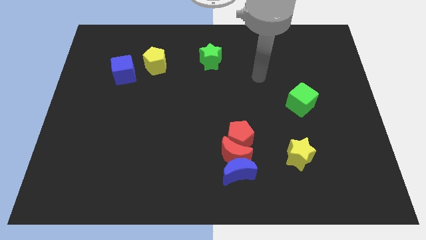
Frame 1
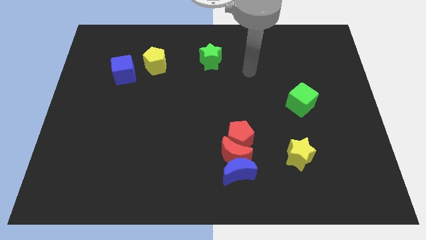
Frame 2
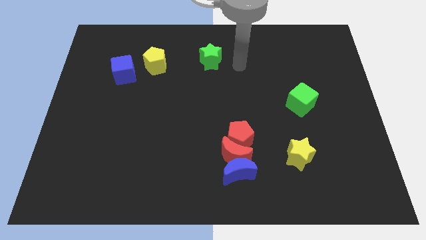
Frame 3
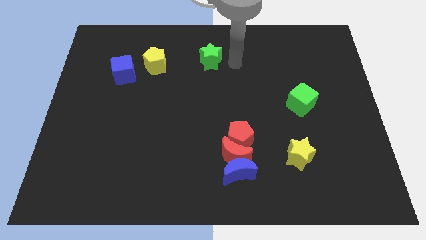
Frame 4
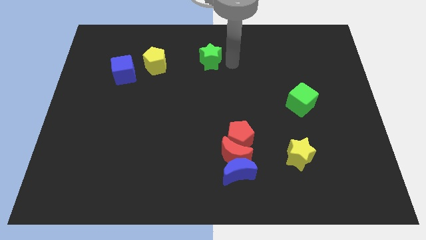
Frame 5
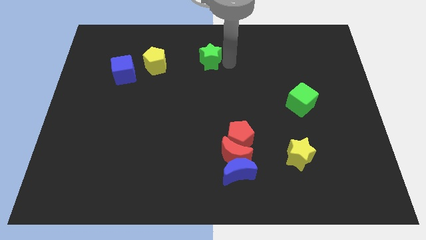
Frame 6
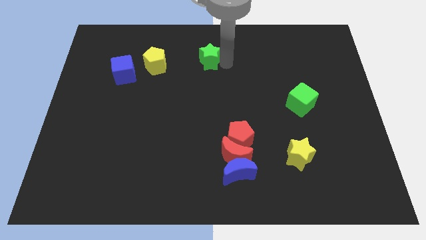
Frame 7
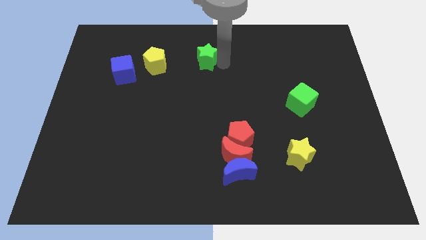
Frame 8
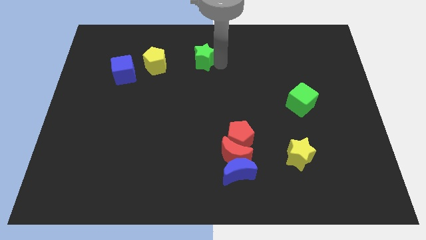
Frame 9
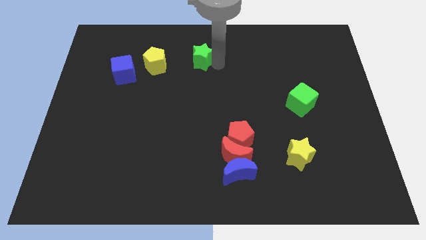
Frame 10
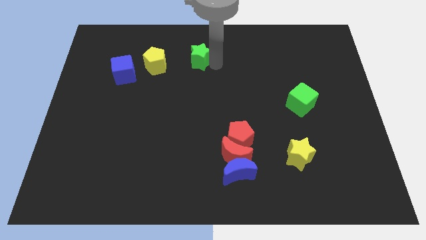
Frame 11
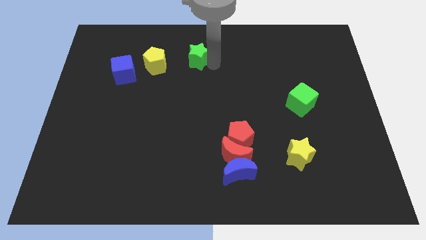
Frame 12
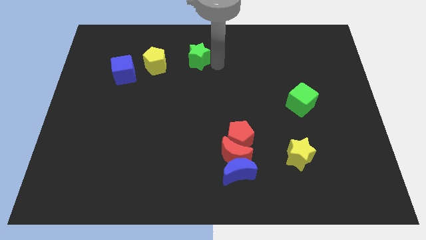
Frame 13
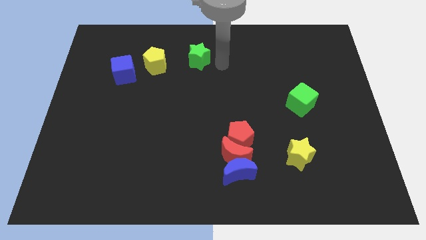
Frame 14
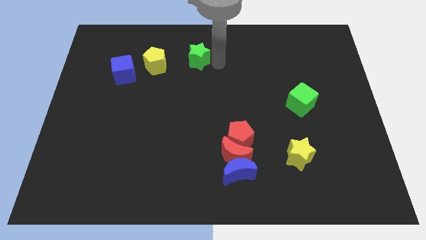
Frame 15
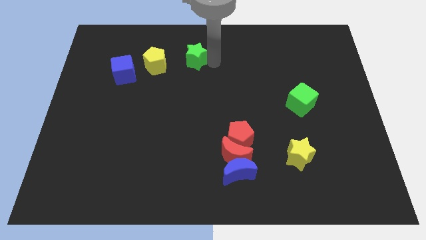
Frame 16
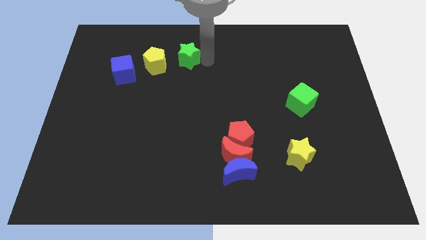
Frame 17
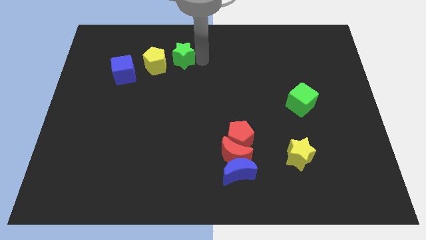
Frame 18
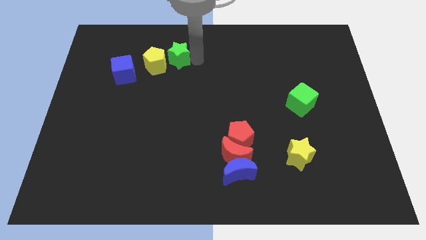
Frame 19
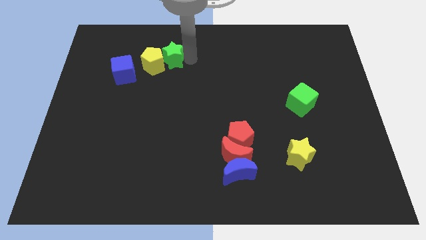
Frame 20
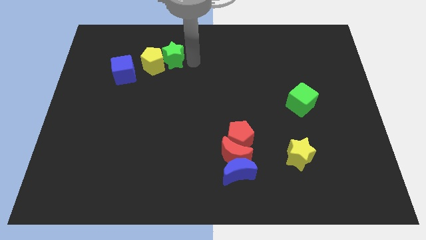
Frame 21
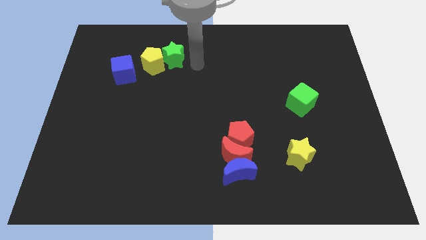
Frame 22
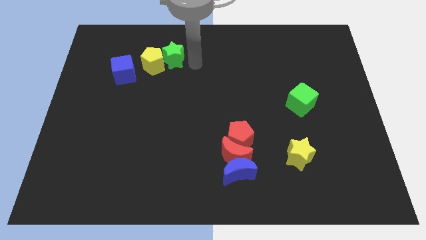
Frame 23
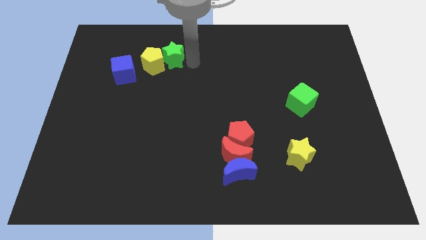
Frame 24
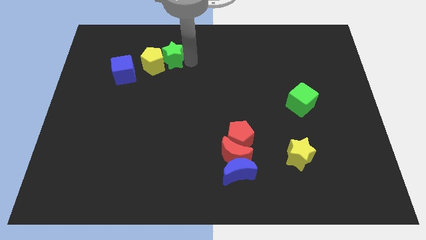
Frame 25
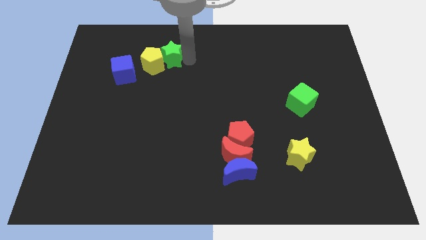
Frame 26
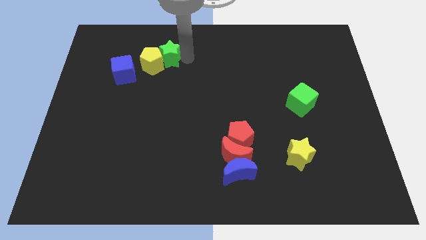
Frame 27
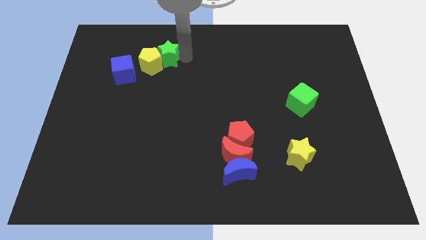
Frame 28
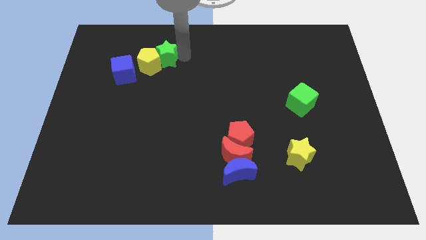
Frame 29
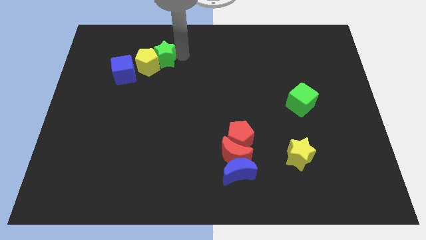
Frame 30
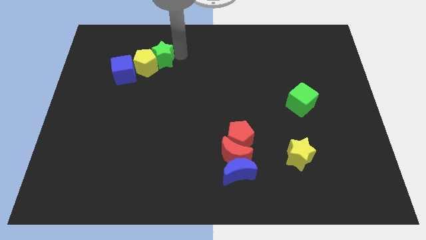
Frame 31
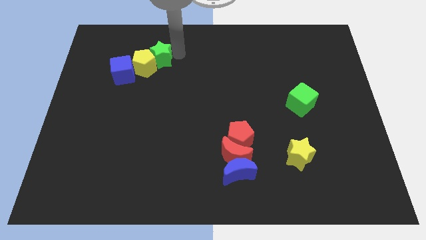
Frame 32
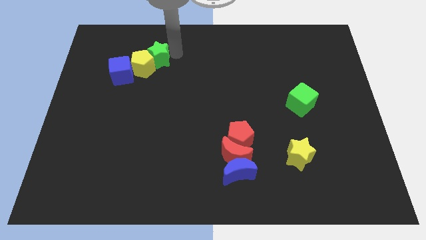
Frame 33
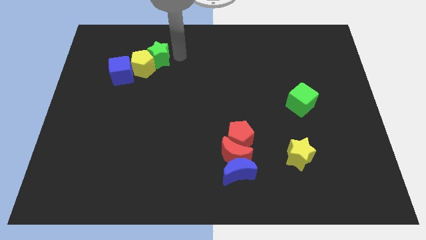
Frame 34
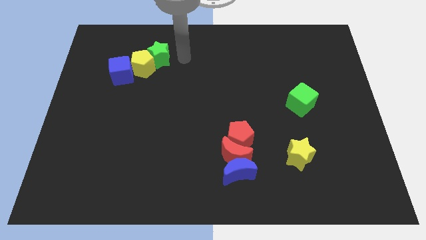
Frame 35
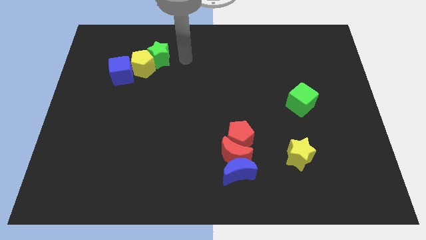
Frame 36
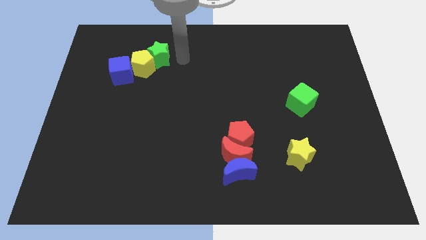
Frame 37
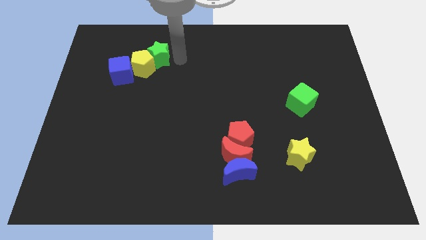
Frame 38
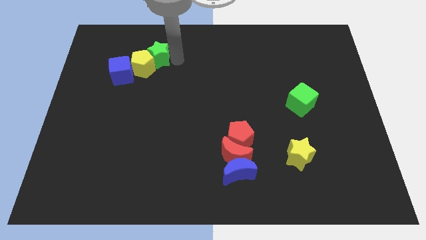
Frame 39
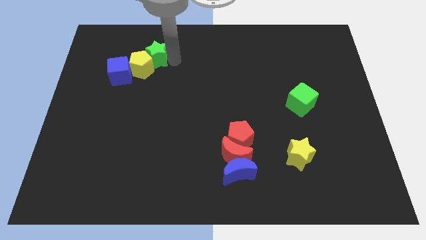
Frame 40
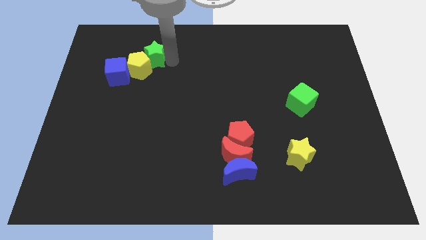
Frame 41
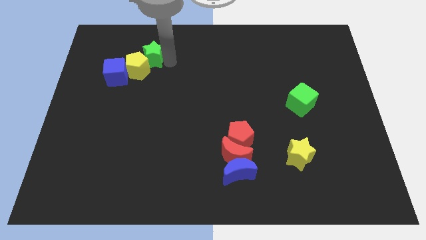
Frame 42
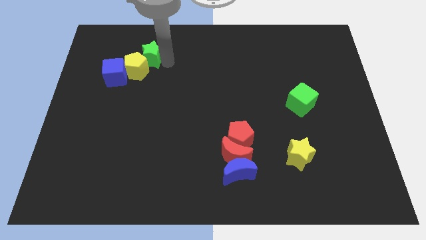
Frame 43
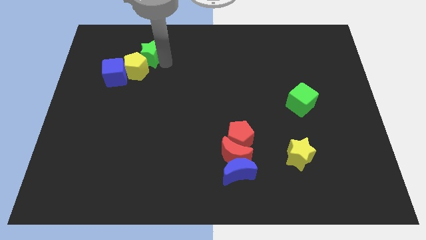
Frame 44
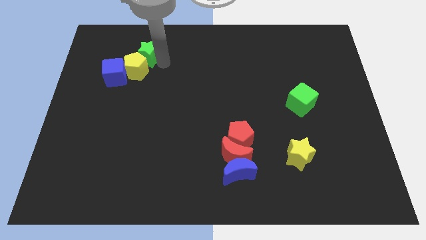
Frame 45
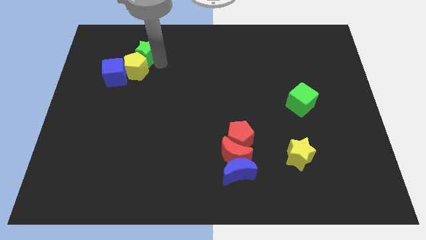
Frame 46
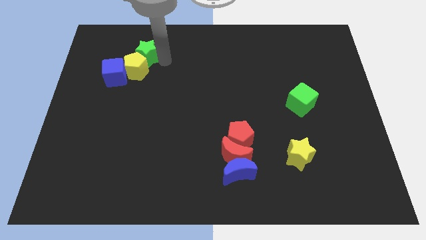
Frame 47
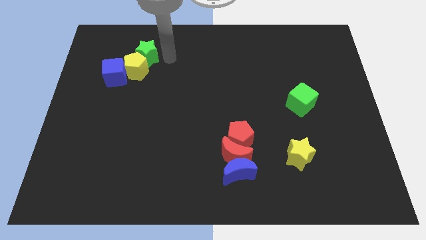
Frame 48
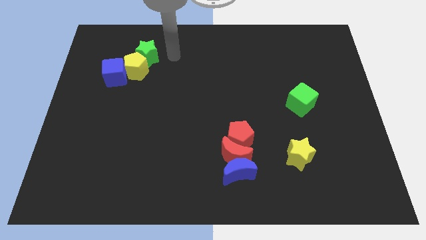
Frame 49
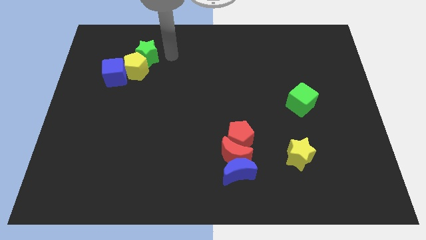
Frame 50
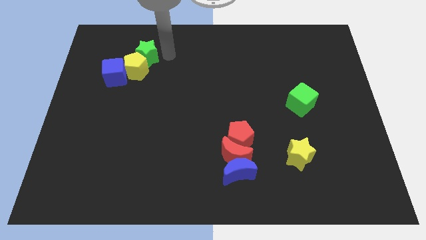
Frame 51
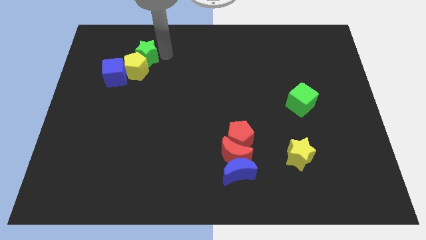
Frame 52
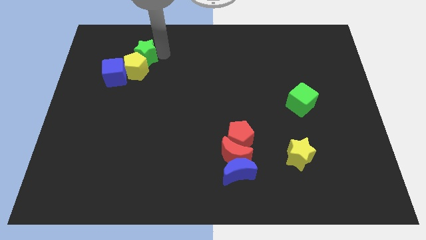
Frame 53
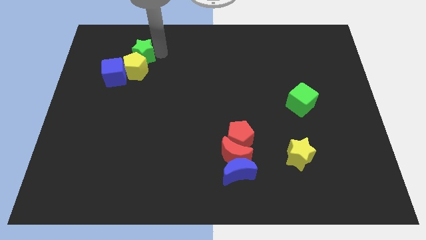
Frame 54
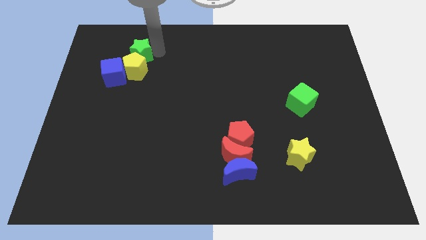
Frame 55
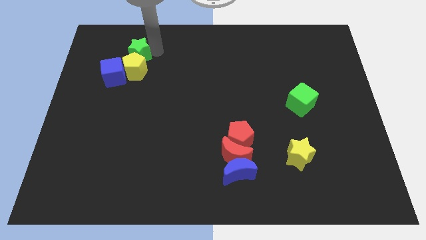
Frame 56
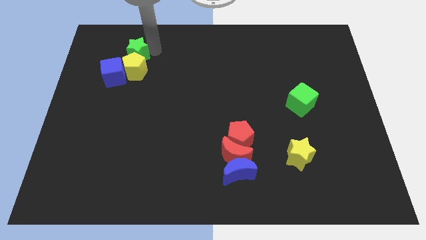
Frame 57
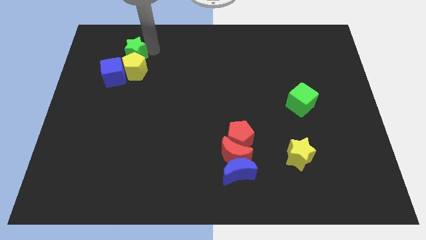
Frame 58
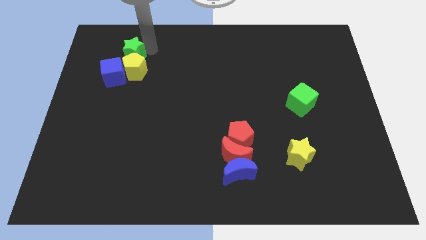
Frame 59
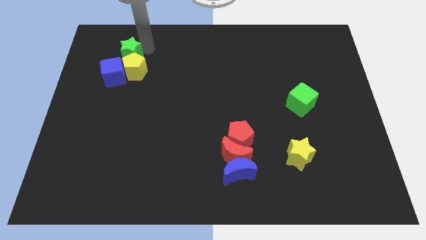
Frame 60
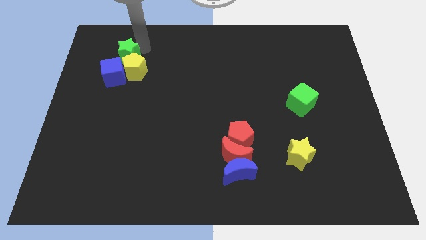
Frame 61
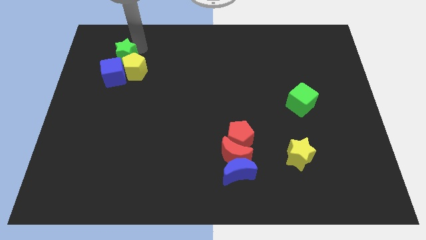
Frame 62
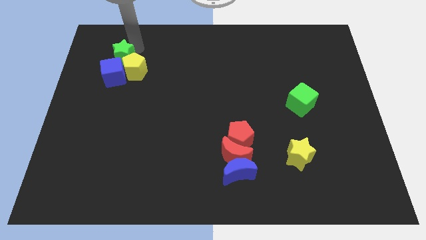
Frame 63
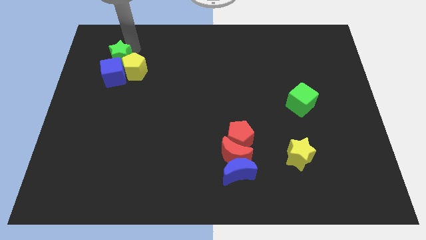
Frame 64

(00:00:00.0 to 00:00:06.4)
slide the green star to the left side of the yellow pentagon

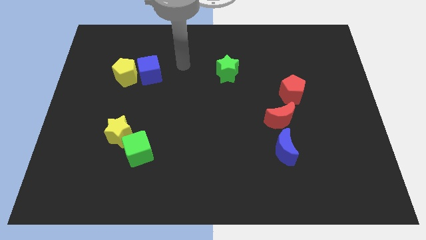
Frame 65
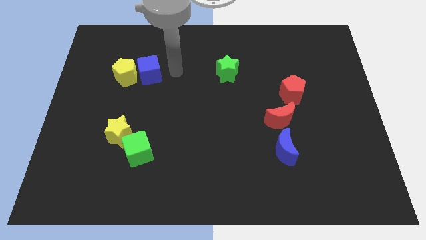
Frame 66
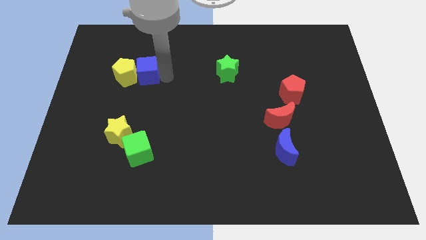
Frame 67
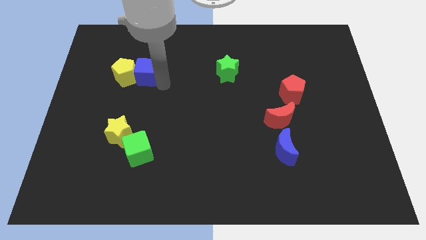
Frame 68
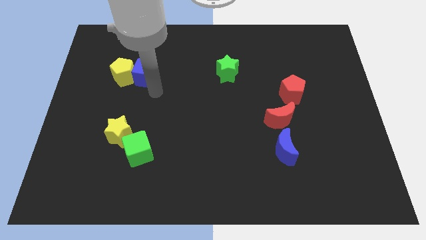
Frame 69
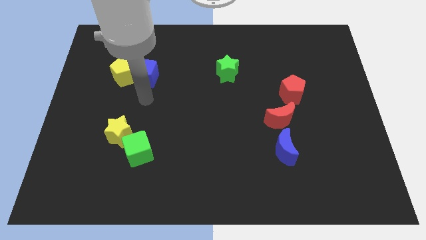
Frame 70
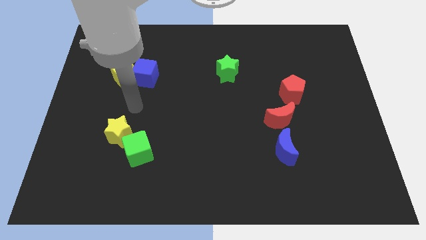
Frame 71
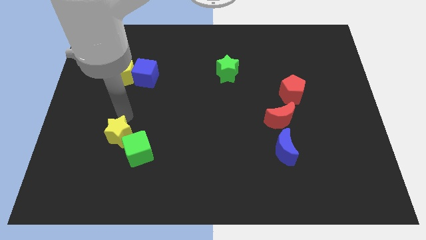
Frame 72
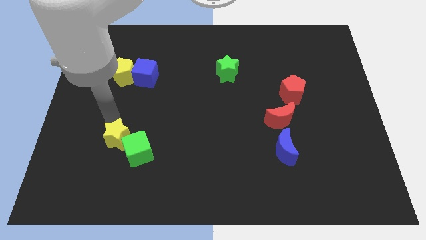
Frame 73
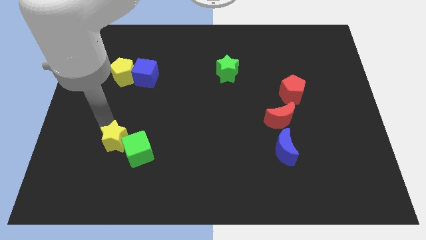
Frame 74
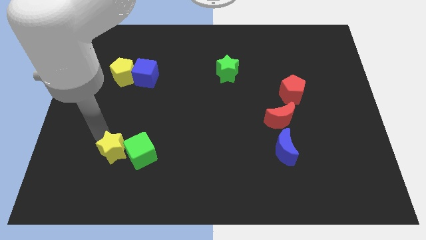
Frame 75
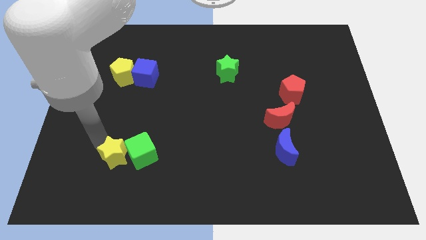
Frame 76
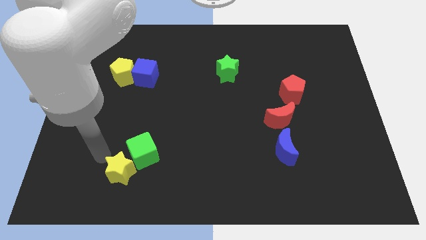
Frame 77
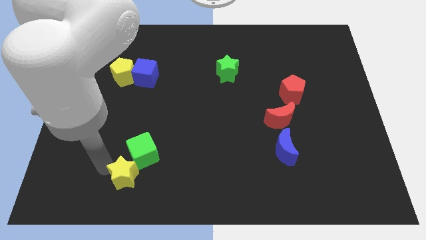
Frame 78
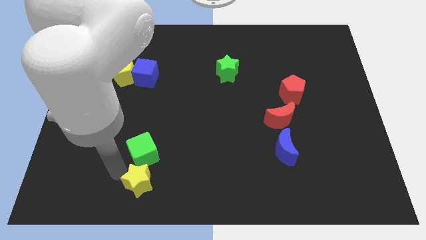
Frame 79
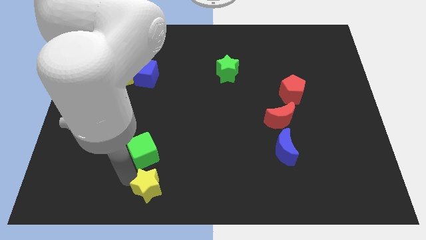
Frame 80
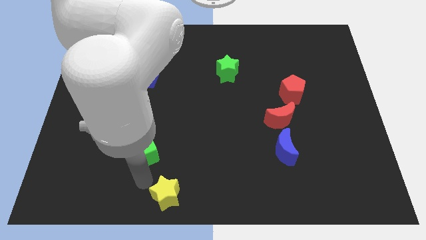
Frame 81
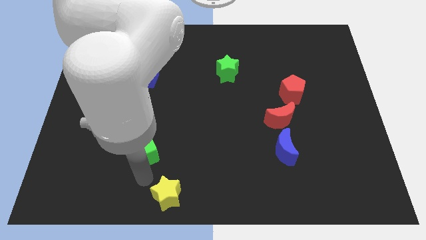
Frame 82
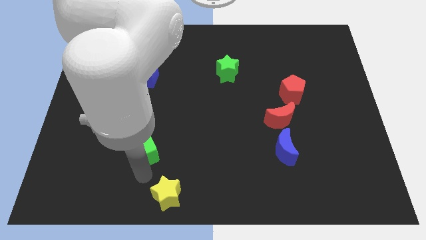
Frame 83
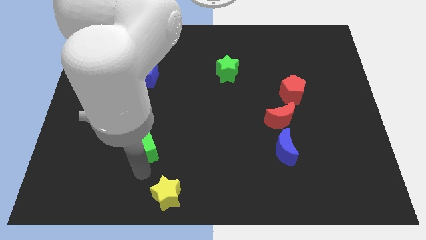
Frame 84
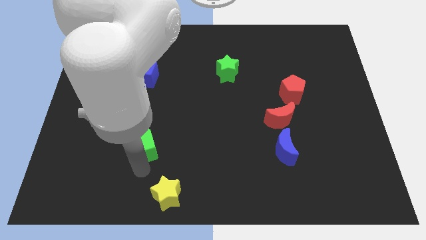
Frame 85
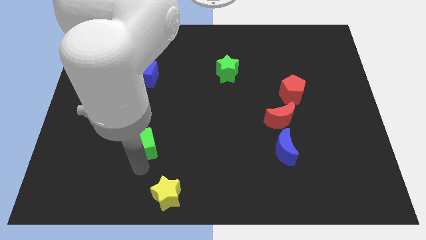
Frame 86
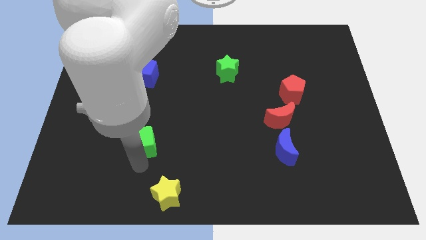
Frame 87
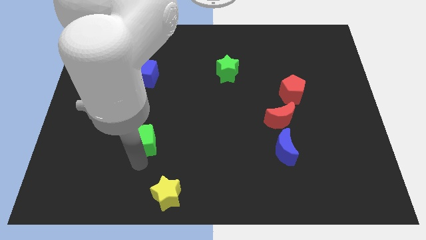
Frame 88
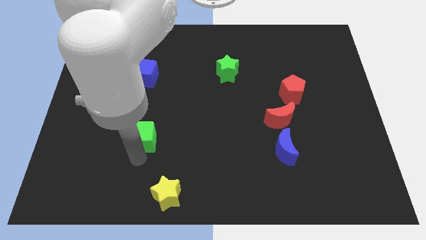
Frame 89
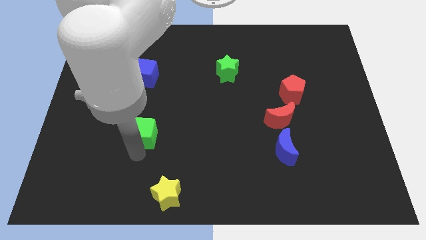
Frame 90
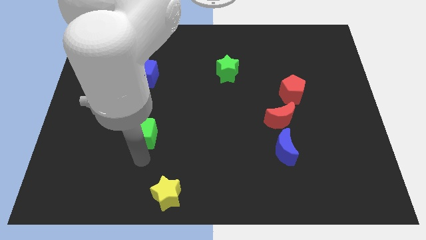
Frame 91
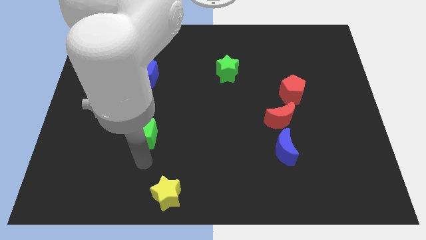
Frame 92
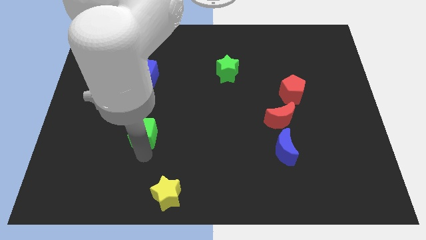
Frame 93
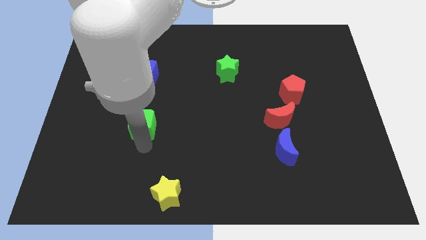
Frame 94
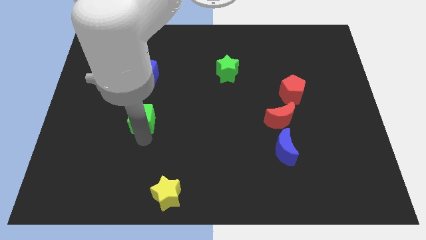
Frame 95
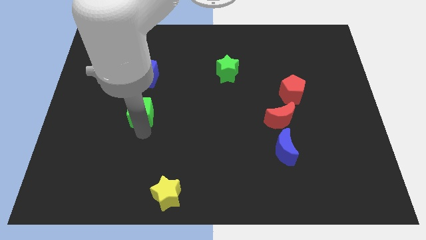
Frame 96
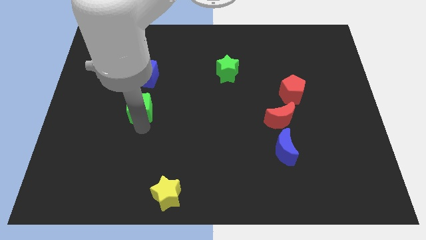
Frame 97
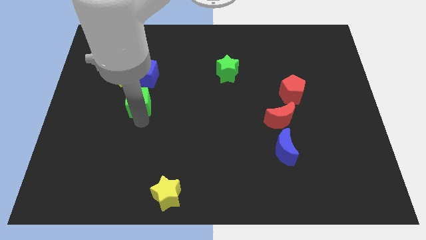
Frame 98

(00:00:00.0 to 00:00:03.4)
slide the green cube to the bottom right of the yellow pentagon
